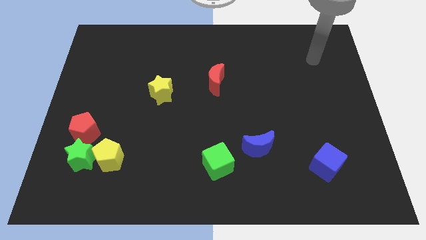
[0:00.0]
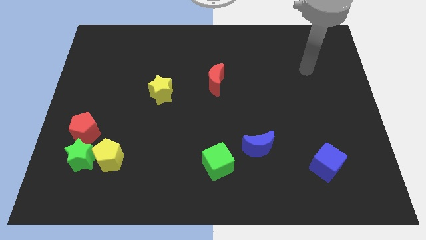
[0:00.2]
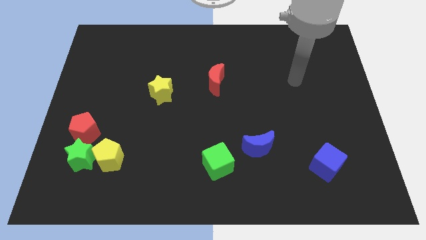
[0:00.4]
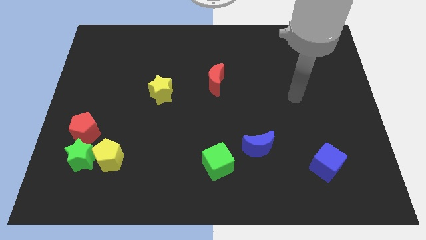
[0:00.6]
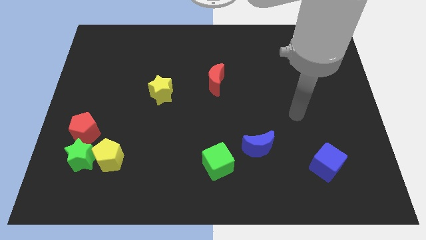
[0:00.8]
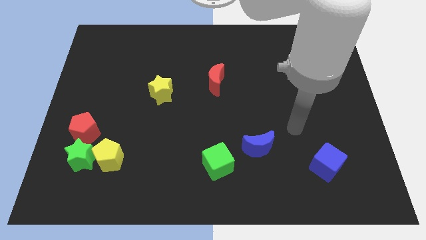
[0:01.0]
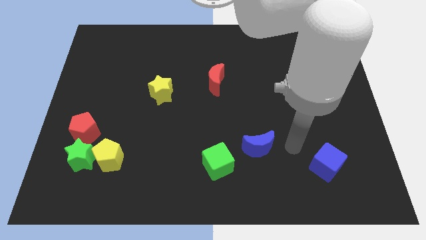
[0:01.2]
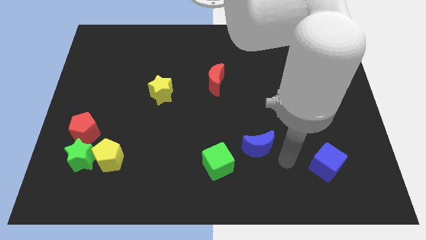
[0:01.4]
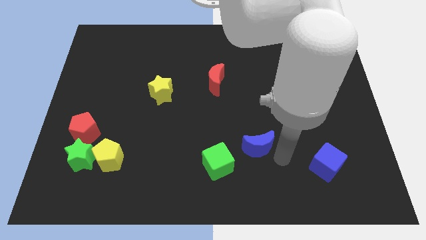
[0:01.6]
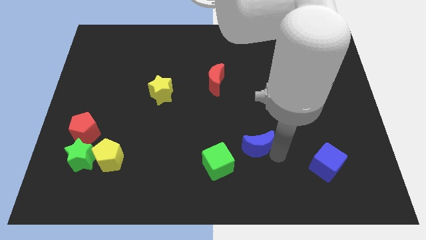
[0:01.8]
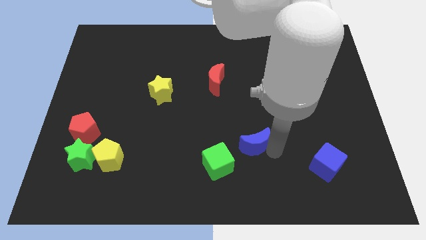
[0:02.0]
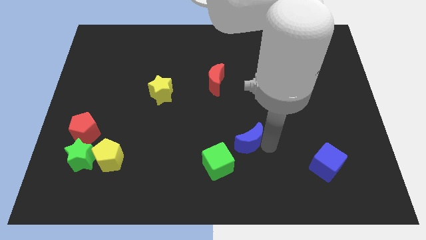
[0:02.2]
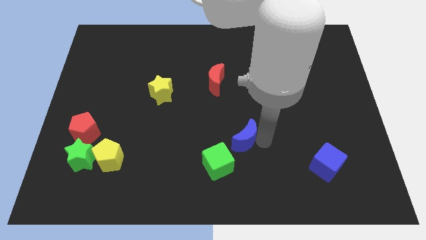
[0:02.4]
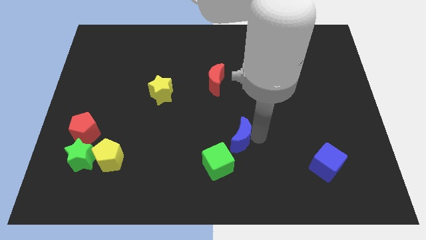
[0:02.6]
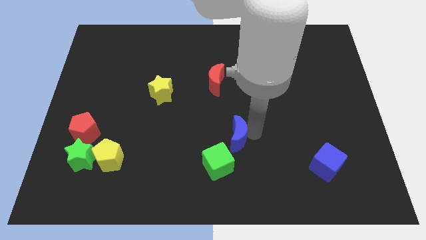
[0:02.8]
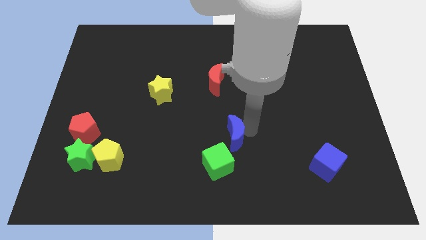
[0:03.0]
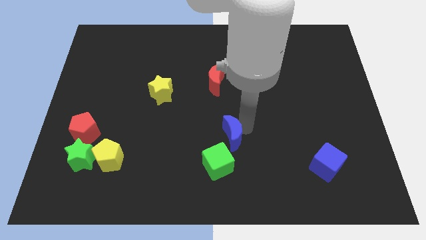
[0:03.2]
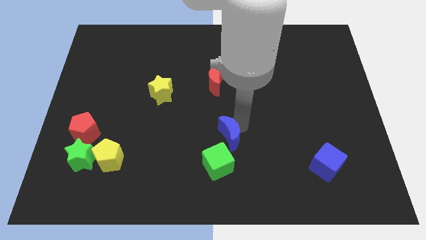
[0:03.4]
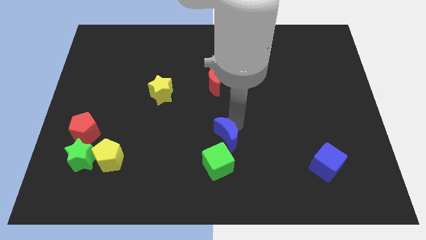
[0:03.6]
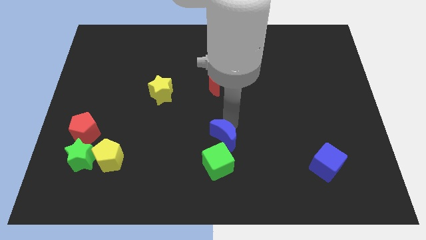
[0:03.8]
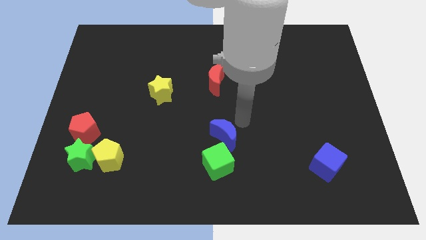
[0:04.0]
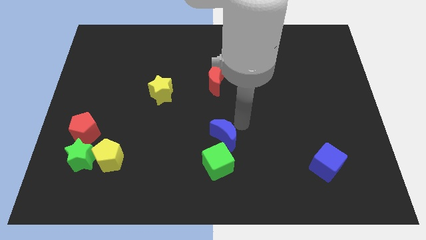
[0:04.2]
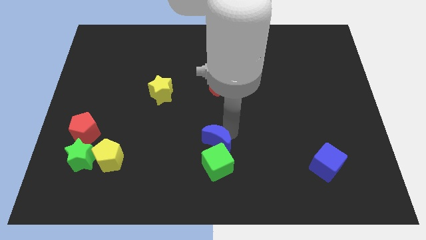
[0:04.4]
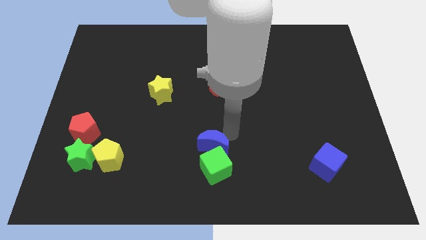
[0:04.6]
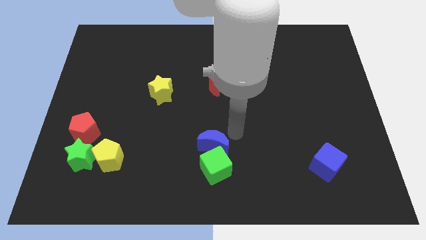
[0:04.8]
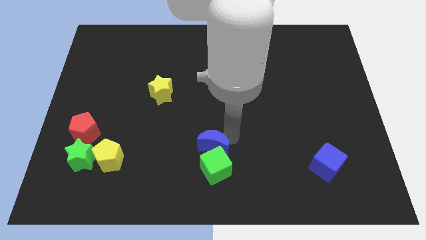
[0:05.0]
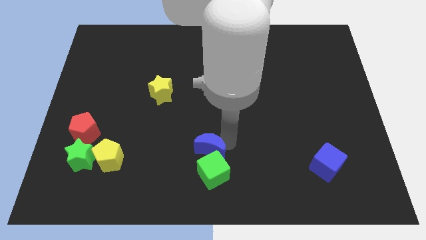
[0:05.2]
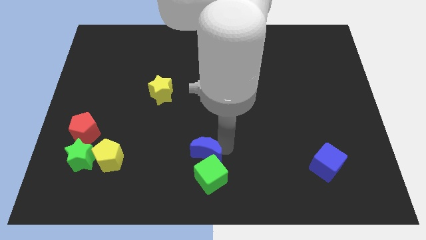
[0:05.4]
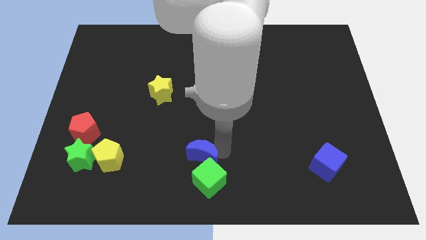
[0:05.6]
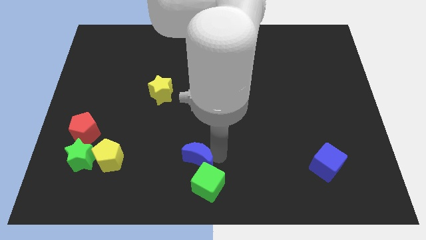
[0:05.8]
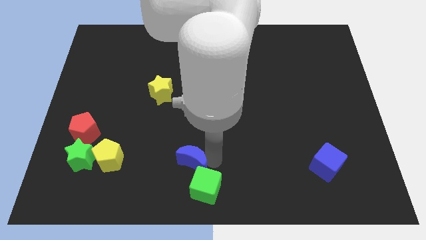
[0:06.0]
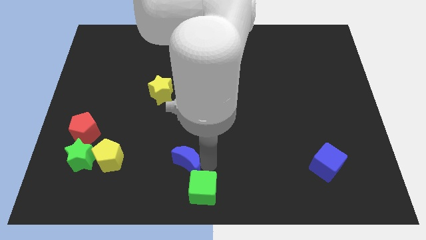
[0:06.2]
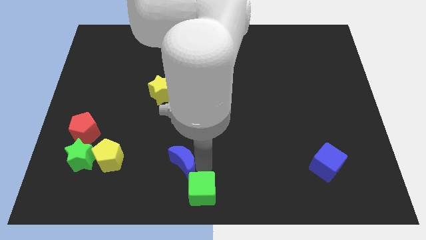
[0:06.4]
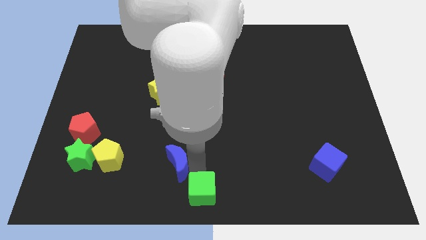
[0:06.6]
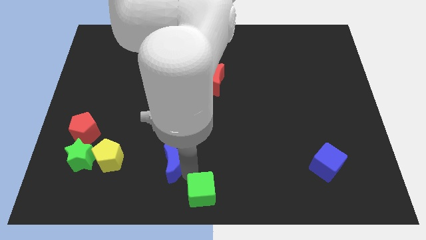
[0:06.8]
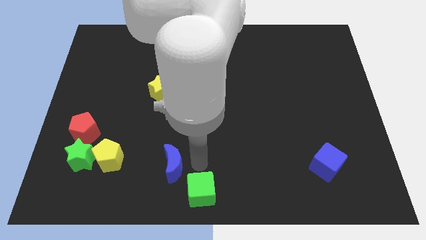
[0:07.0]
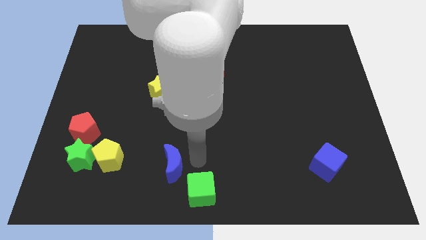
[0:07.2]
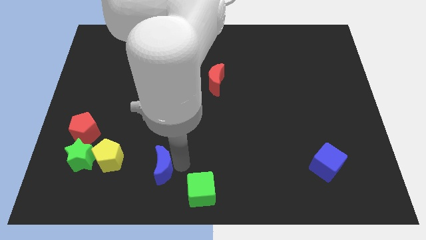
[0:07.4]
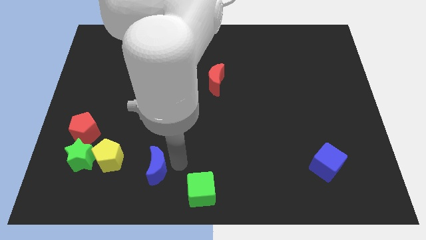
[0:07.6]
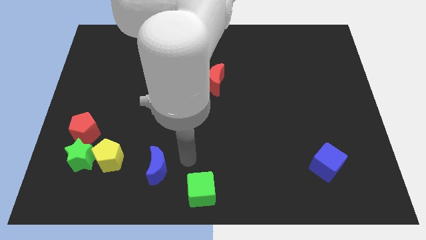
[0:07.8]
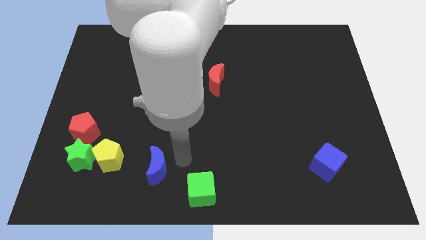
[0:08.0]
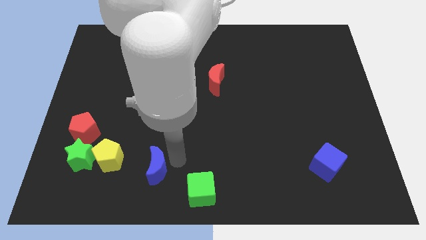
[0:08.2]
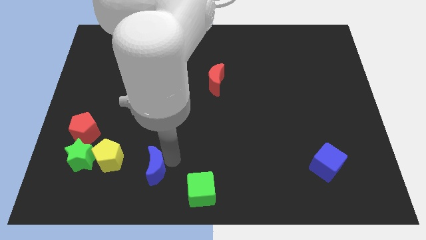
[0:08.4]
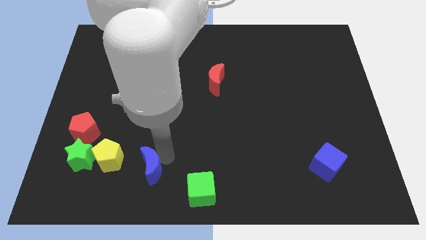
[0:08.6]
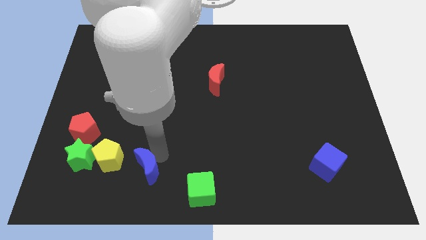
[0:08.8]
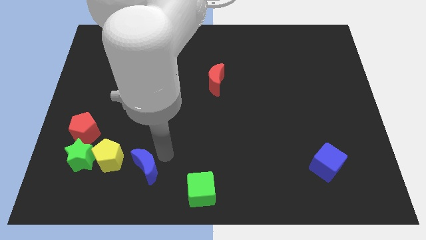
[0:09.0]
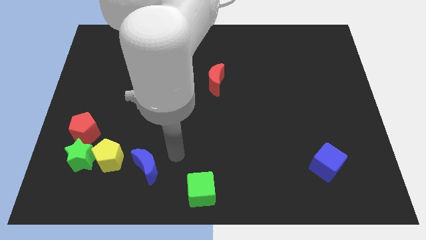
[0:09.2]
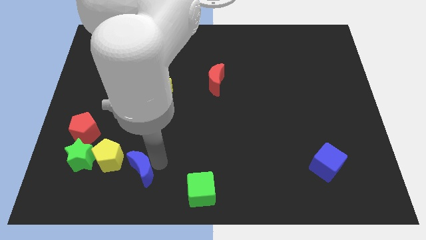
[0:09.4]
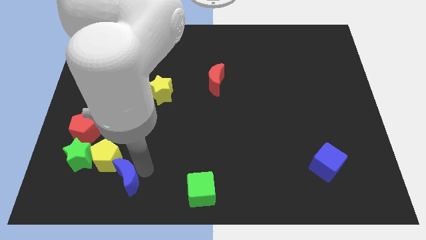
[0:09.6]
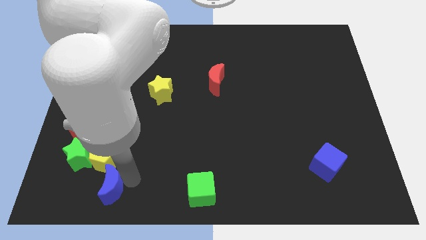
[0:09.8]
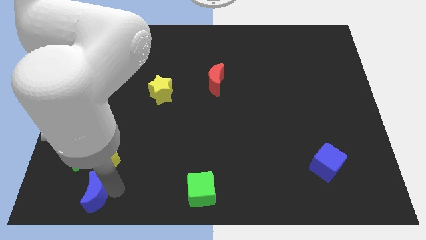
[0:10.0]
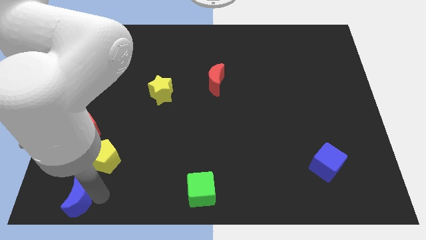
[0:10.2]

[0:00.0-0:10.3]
push the blue moon to the bottom left corner

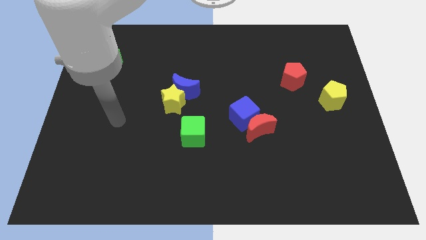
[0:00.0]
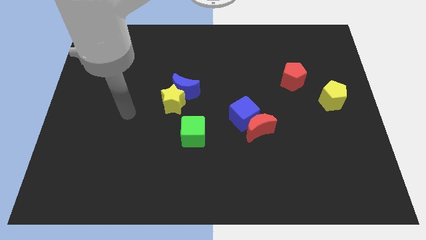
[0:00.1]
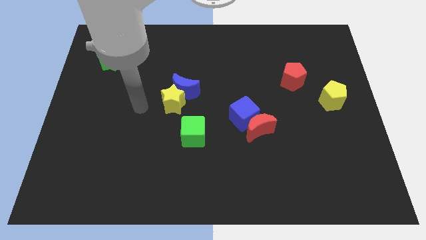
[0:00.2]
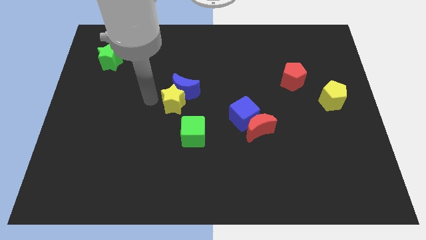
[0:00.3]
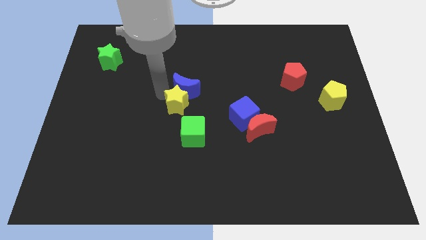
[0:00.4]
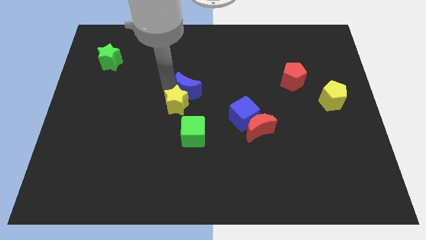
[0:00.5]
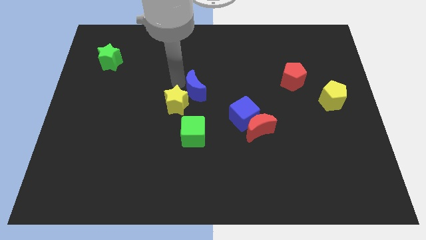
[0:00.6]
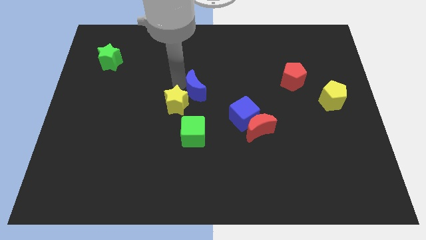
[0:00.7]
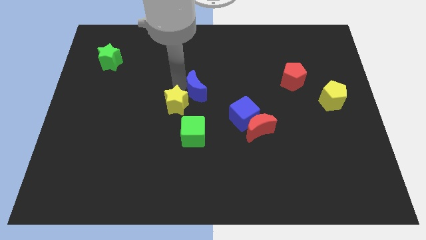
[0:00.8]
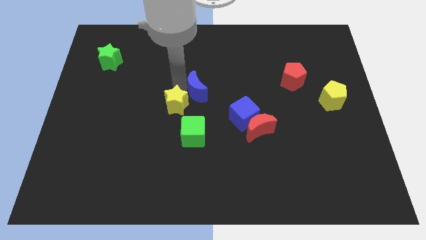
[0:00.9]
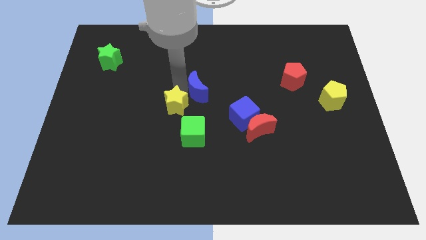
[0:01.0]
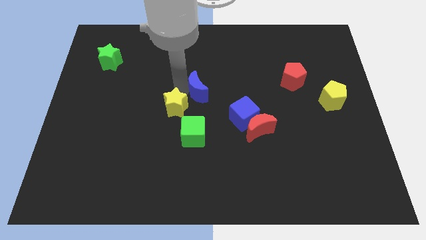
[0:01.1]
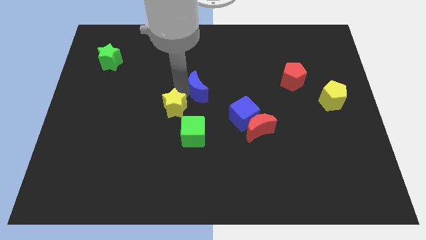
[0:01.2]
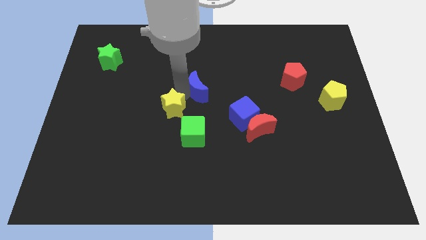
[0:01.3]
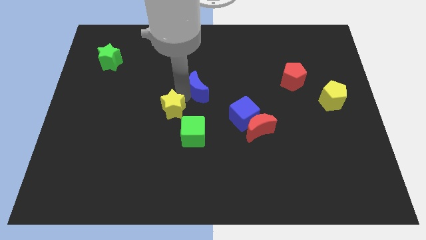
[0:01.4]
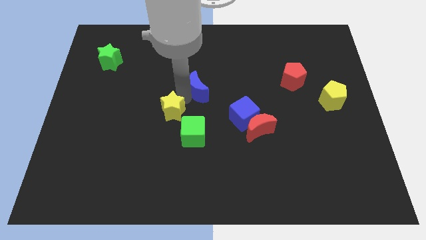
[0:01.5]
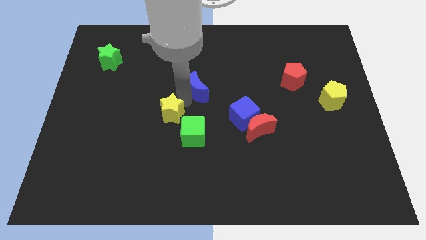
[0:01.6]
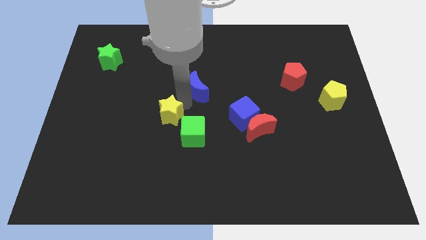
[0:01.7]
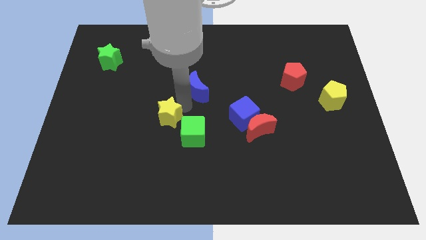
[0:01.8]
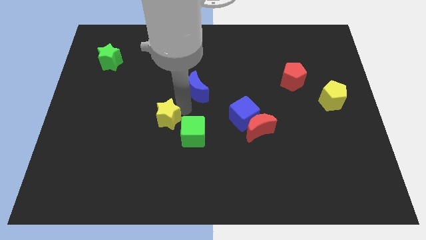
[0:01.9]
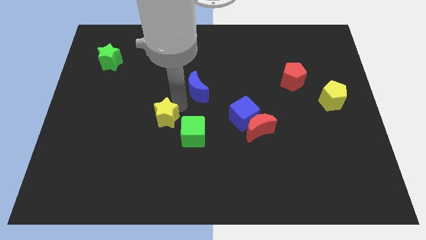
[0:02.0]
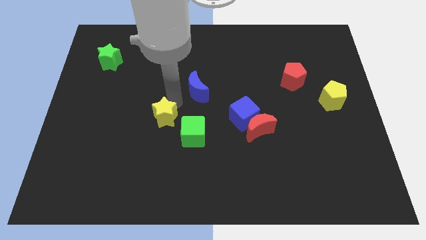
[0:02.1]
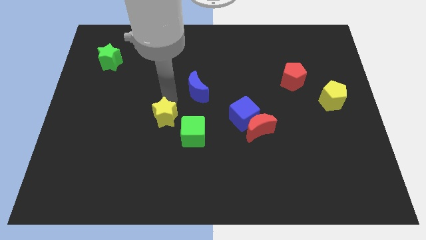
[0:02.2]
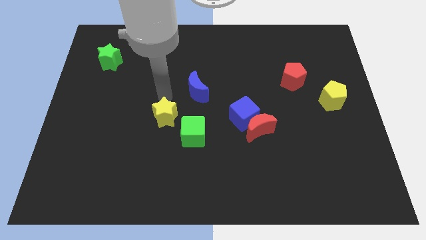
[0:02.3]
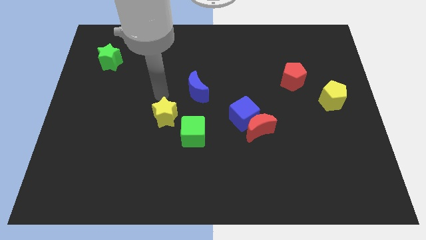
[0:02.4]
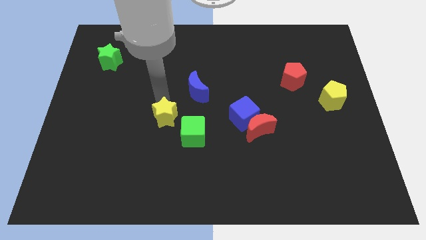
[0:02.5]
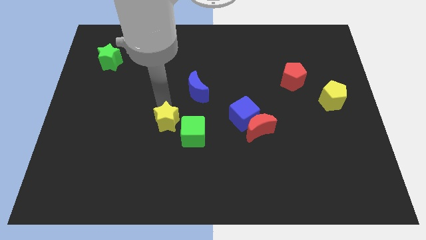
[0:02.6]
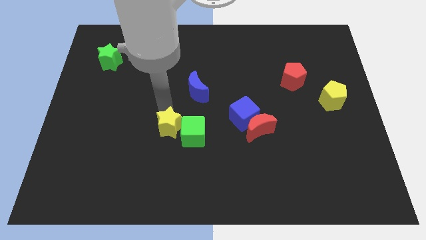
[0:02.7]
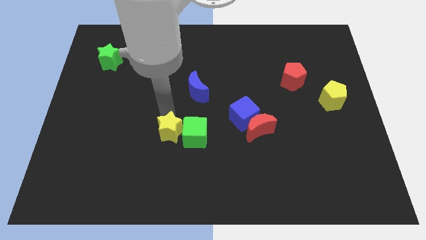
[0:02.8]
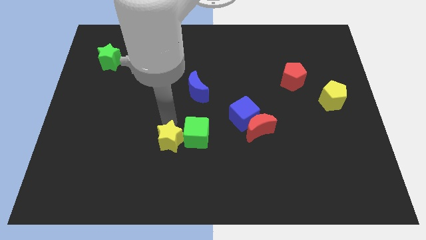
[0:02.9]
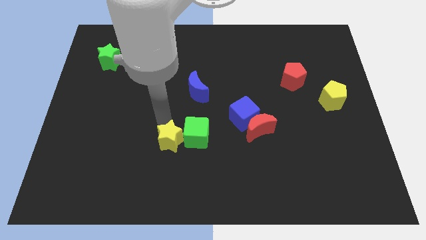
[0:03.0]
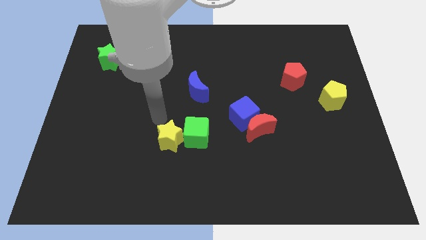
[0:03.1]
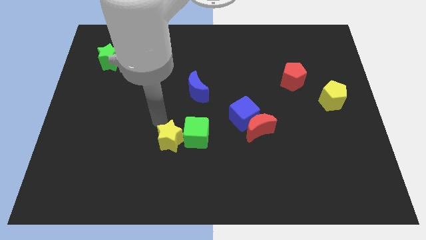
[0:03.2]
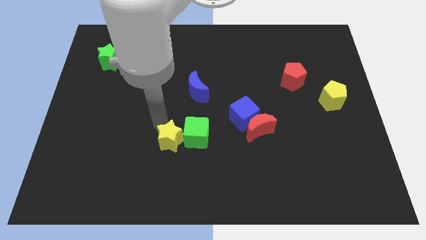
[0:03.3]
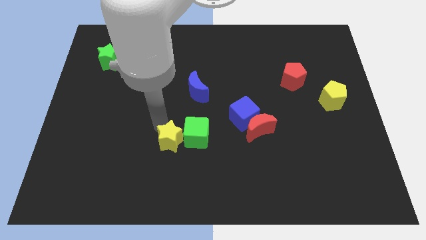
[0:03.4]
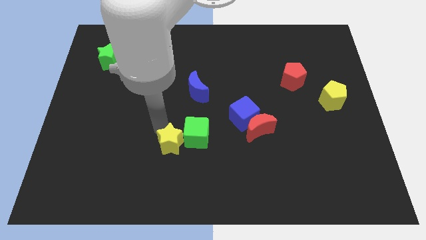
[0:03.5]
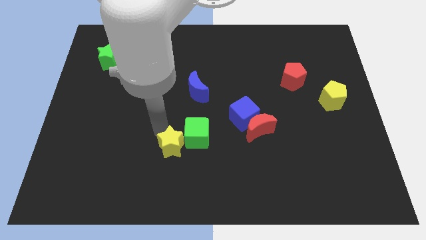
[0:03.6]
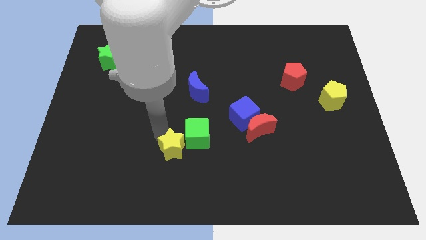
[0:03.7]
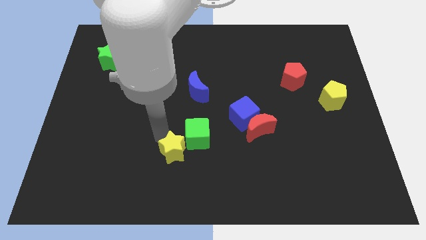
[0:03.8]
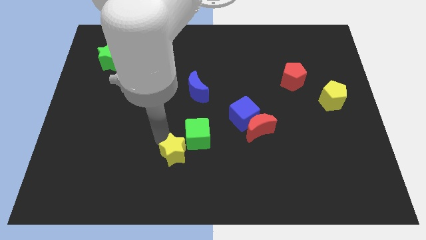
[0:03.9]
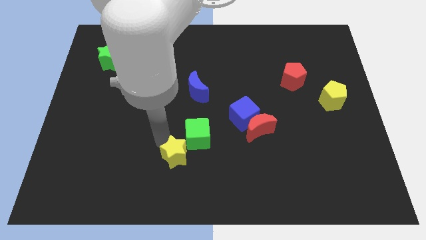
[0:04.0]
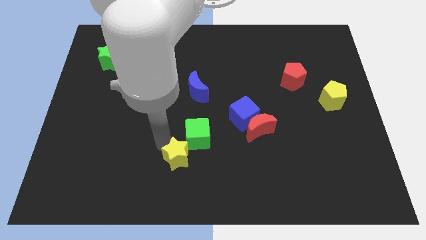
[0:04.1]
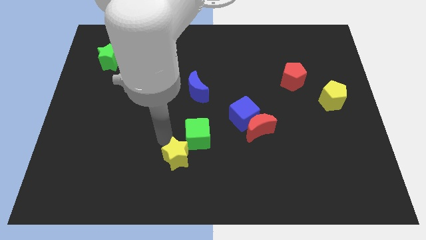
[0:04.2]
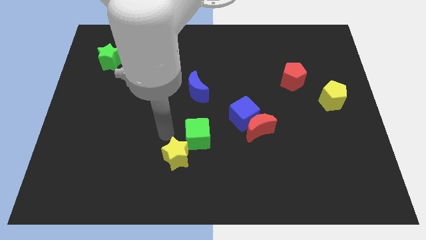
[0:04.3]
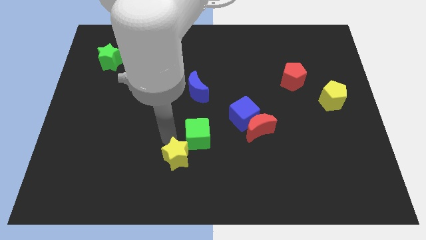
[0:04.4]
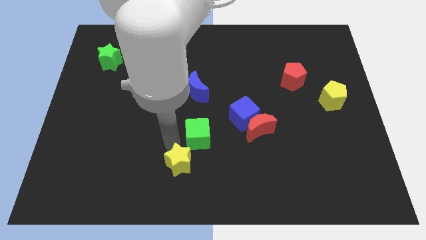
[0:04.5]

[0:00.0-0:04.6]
slide the yellow star to the bottom side
